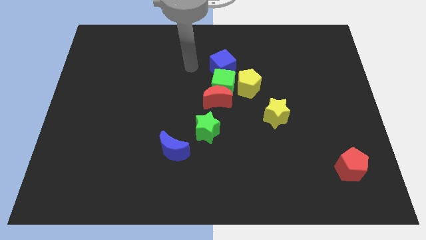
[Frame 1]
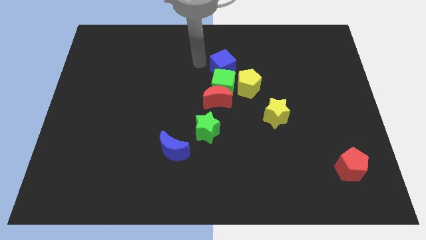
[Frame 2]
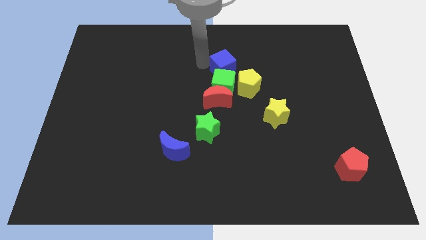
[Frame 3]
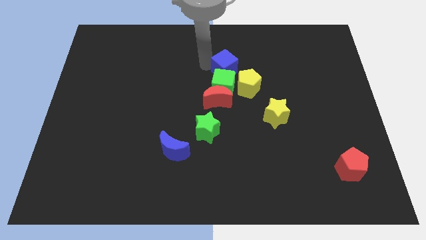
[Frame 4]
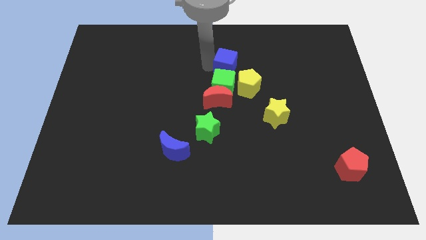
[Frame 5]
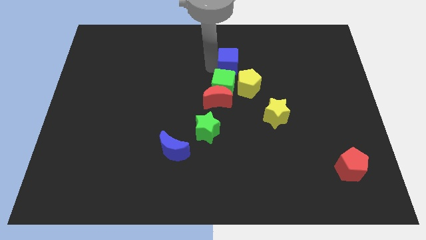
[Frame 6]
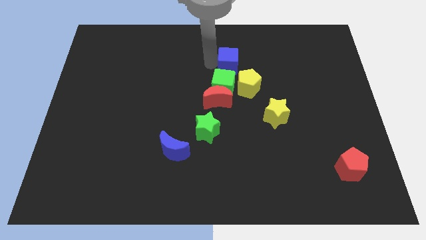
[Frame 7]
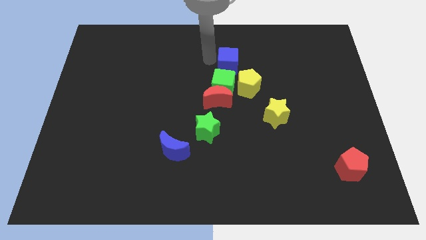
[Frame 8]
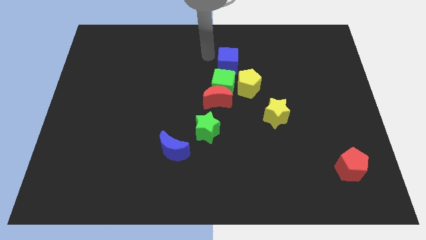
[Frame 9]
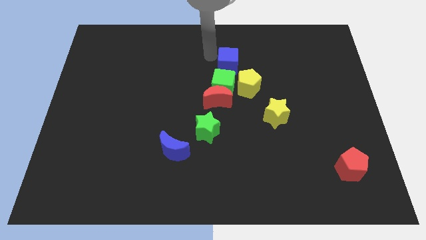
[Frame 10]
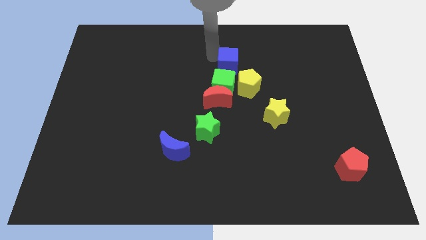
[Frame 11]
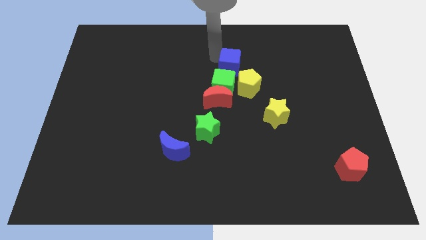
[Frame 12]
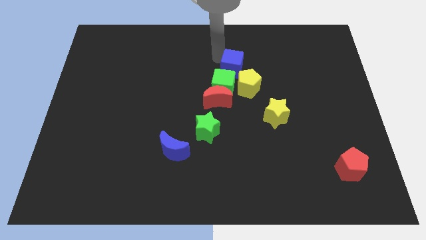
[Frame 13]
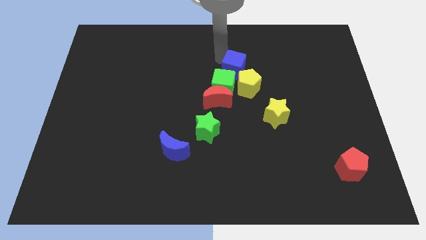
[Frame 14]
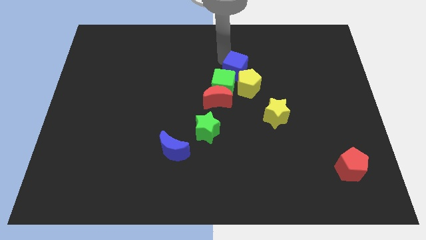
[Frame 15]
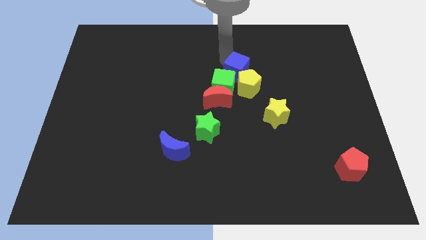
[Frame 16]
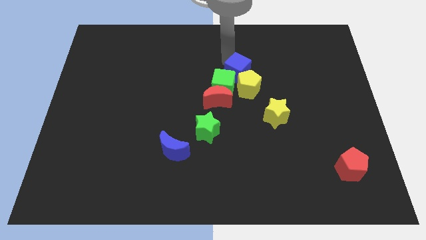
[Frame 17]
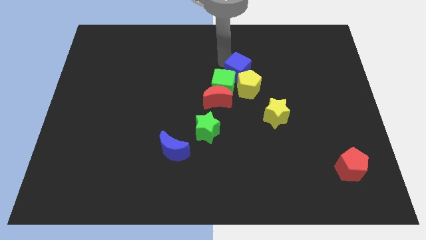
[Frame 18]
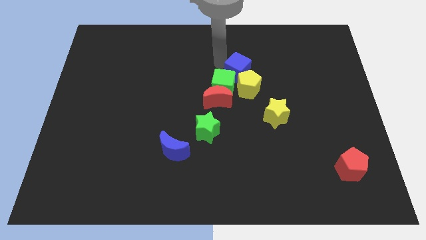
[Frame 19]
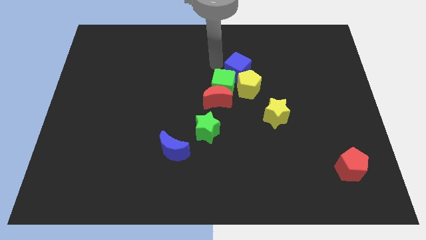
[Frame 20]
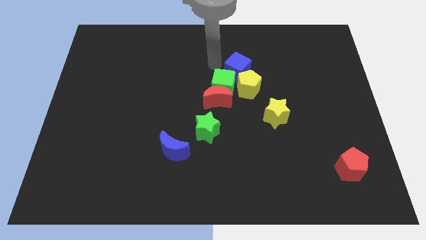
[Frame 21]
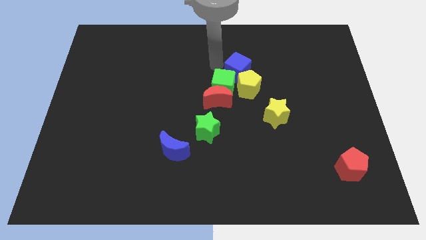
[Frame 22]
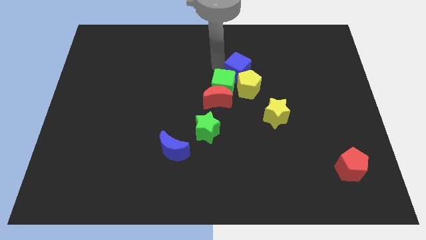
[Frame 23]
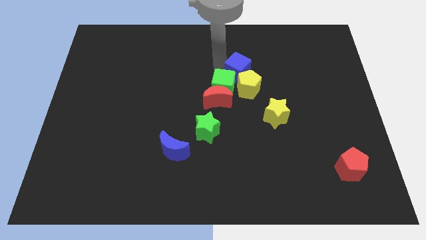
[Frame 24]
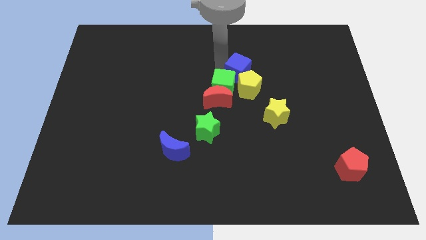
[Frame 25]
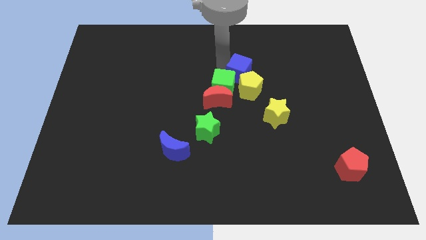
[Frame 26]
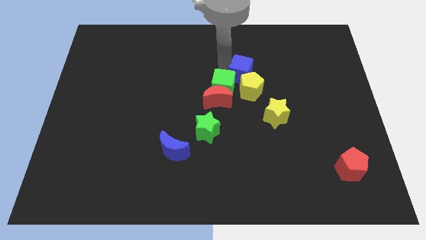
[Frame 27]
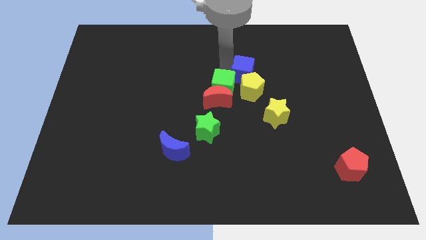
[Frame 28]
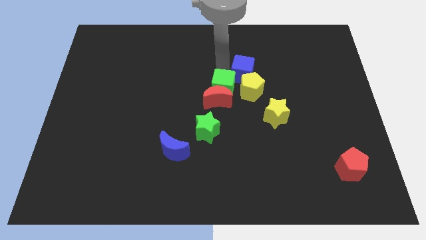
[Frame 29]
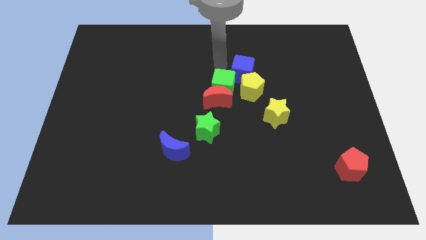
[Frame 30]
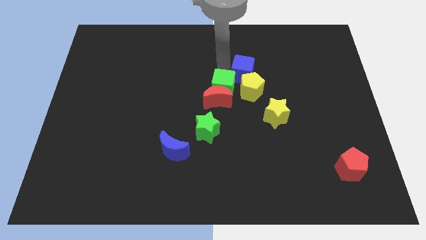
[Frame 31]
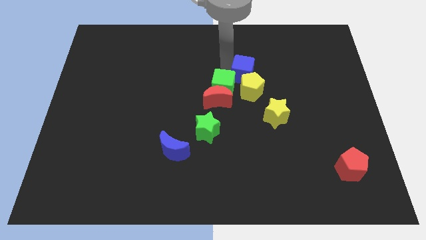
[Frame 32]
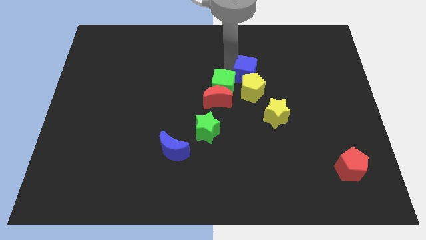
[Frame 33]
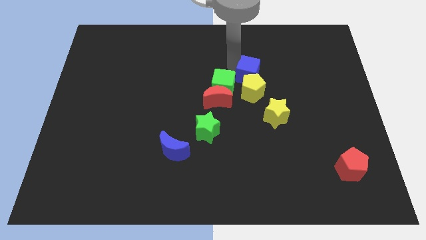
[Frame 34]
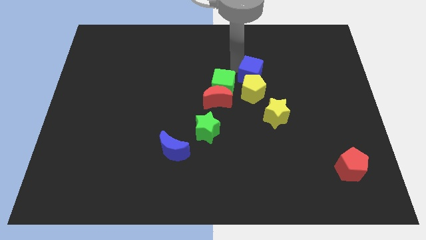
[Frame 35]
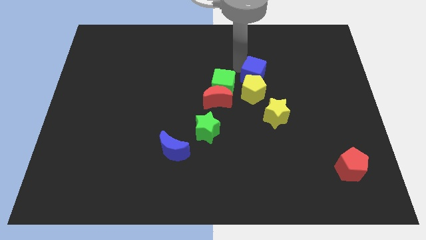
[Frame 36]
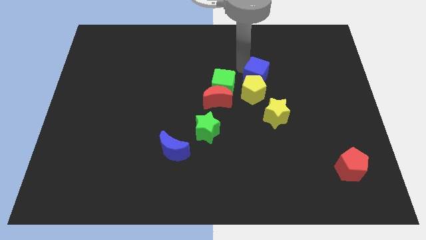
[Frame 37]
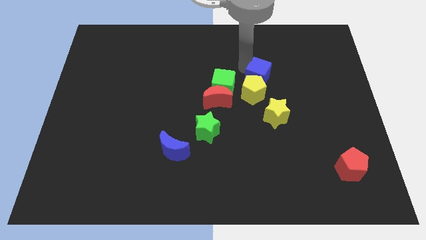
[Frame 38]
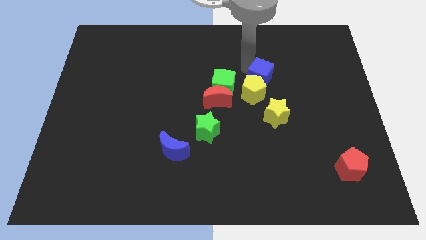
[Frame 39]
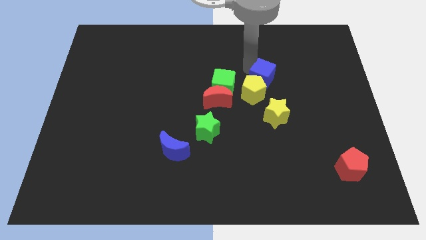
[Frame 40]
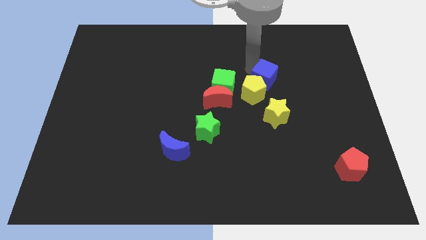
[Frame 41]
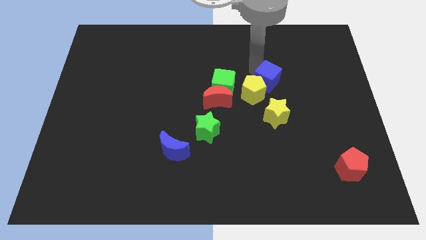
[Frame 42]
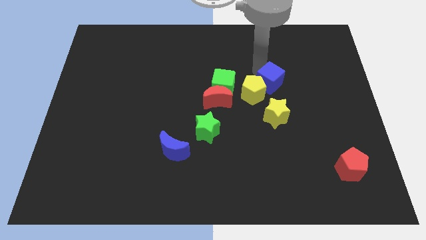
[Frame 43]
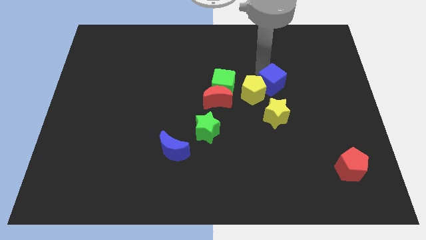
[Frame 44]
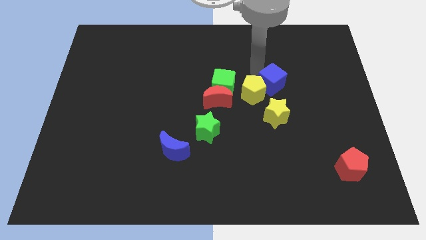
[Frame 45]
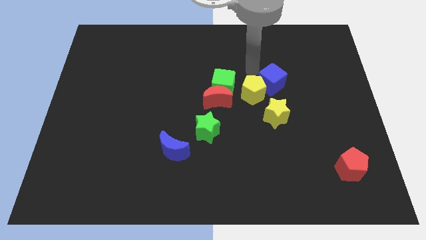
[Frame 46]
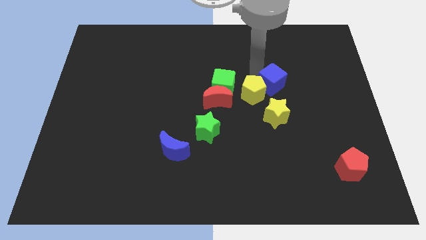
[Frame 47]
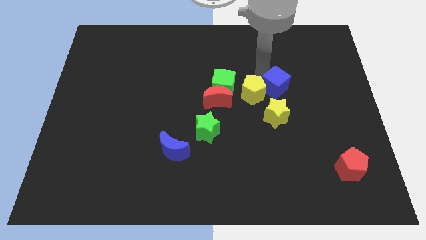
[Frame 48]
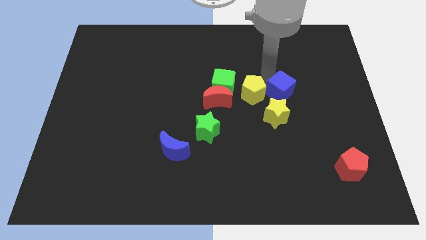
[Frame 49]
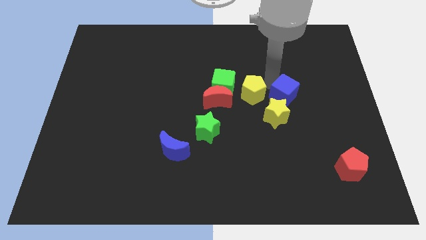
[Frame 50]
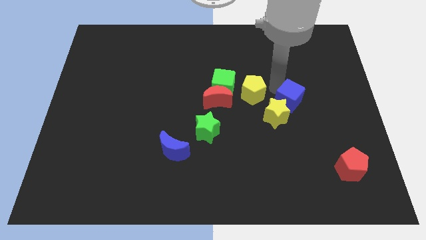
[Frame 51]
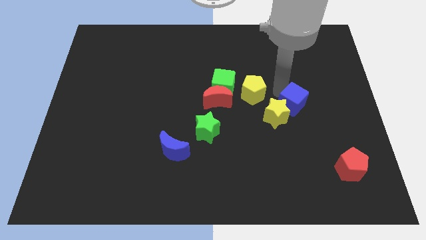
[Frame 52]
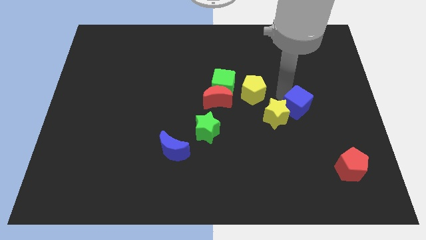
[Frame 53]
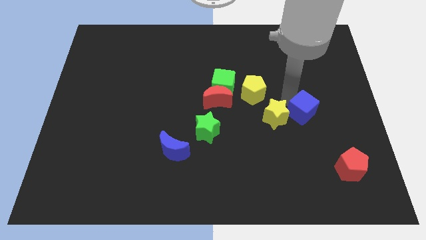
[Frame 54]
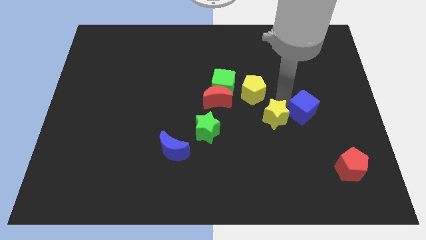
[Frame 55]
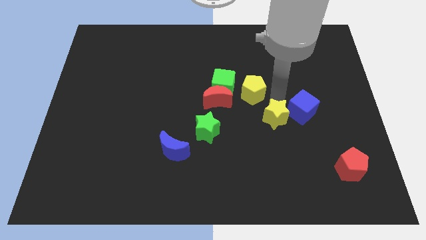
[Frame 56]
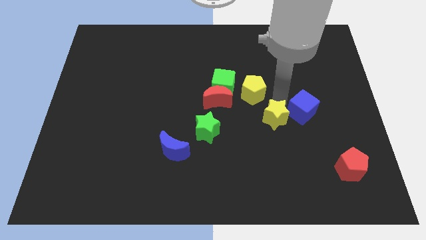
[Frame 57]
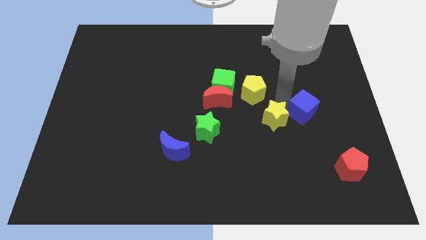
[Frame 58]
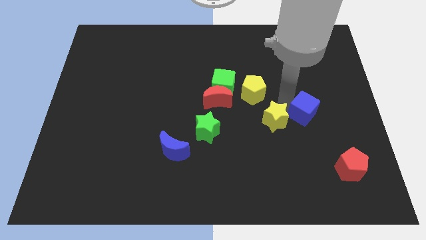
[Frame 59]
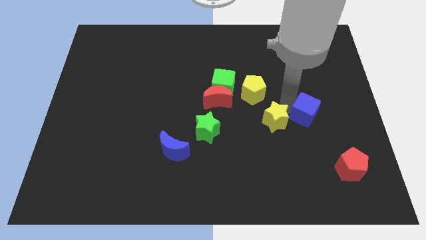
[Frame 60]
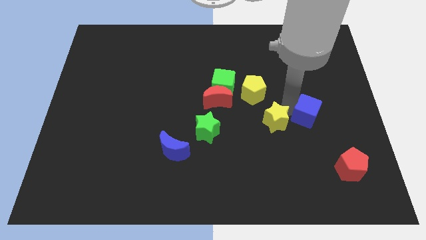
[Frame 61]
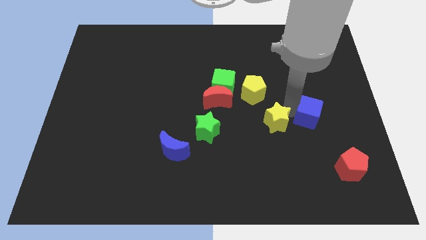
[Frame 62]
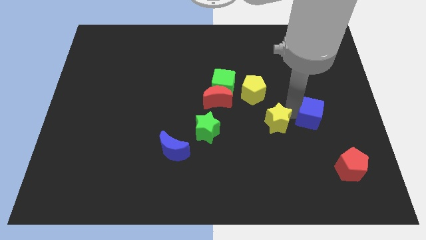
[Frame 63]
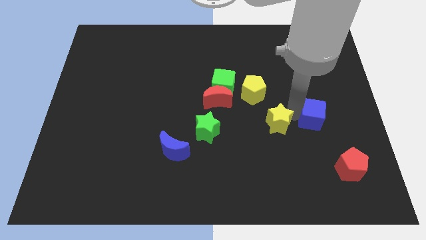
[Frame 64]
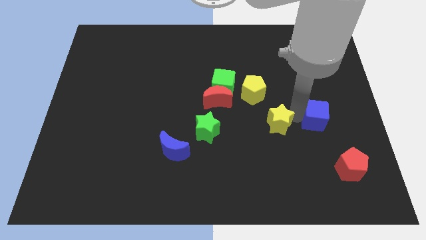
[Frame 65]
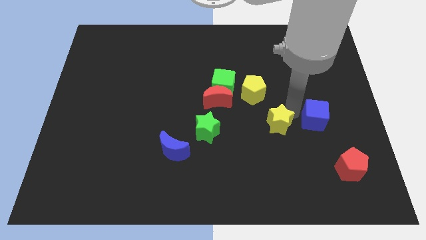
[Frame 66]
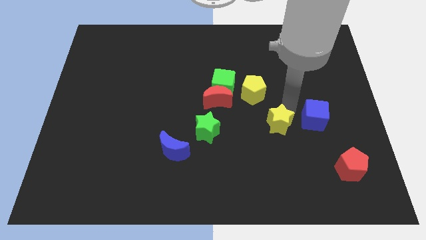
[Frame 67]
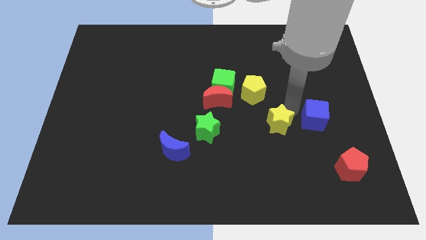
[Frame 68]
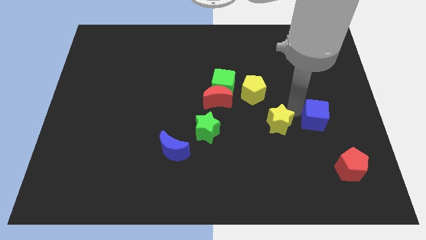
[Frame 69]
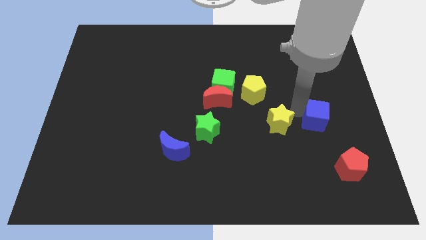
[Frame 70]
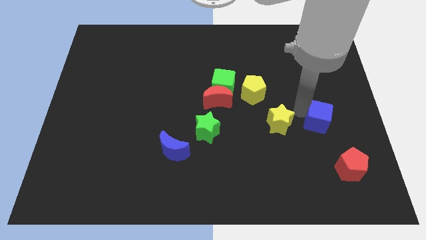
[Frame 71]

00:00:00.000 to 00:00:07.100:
move the blue cube above the red pentagon

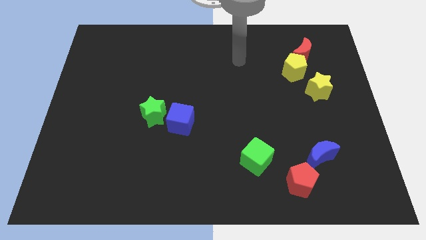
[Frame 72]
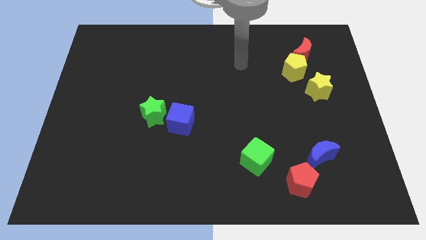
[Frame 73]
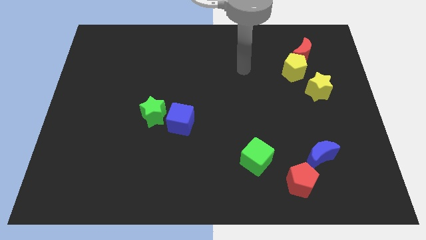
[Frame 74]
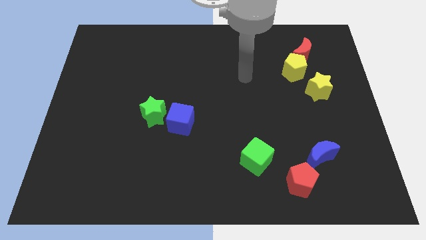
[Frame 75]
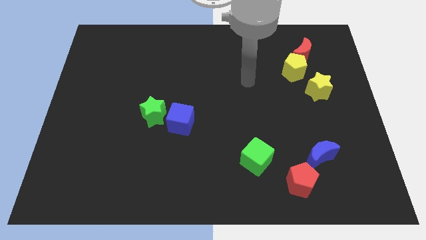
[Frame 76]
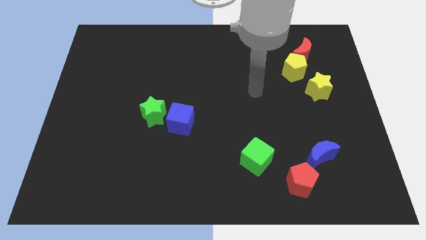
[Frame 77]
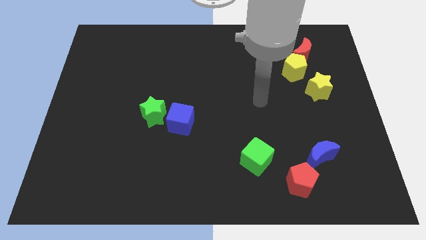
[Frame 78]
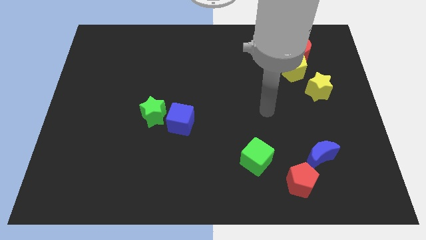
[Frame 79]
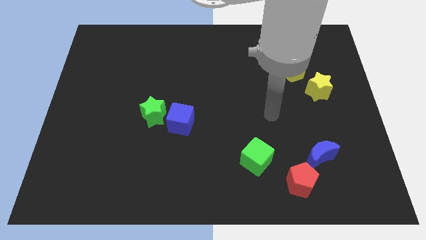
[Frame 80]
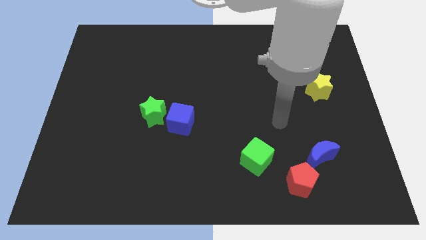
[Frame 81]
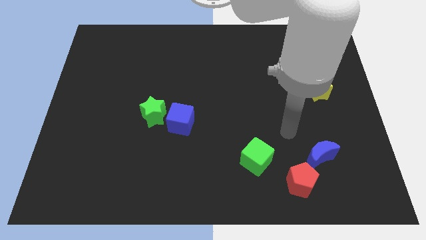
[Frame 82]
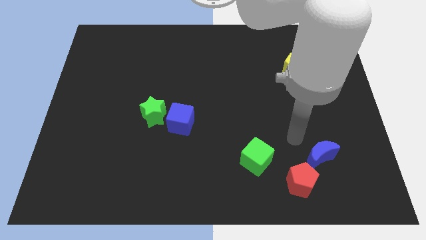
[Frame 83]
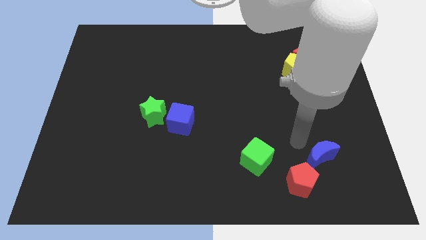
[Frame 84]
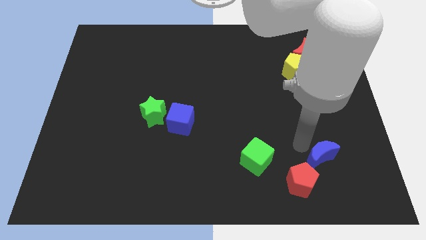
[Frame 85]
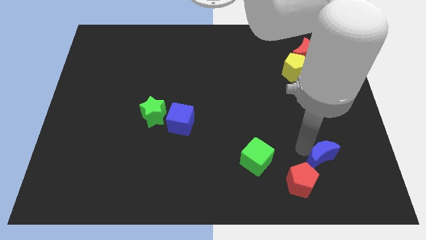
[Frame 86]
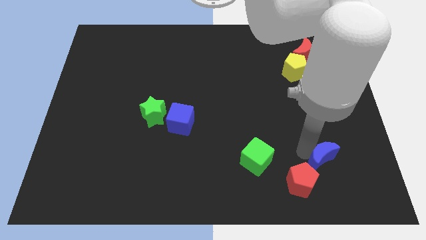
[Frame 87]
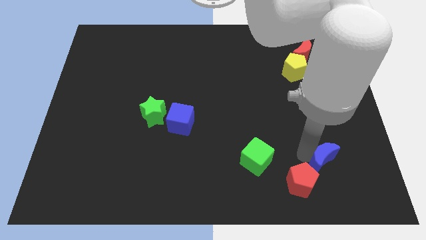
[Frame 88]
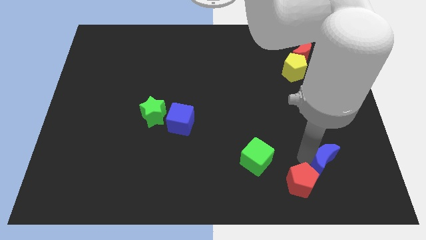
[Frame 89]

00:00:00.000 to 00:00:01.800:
push the blue moon just right of the red pentagon
